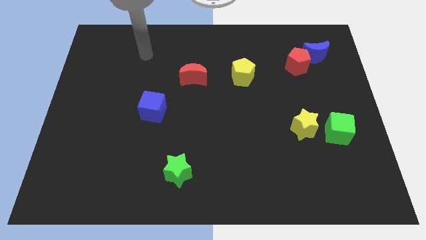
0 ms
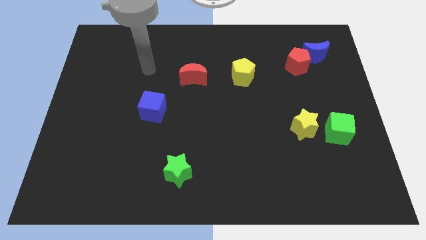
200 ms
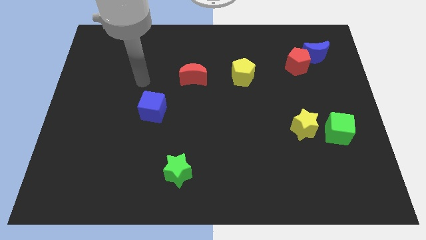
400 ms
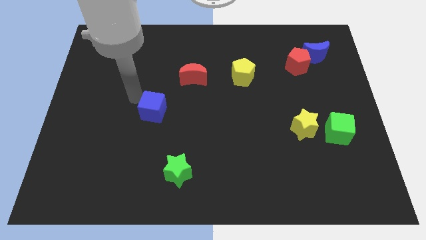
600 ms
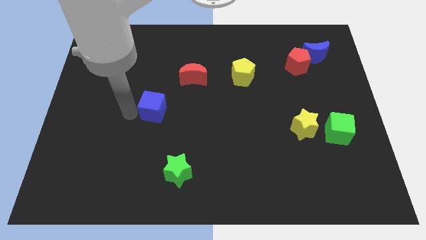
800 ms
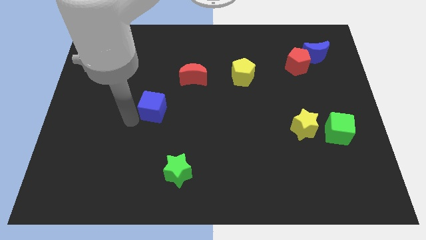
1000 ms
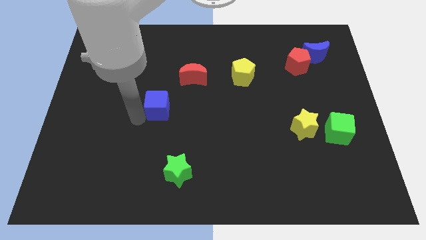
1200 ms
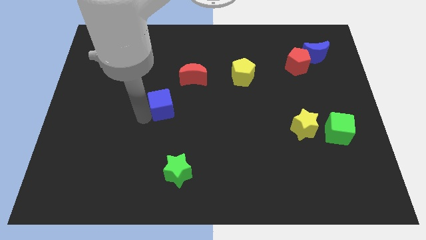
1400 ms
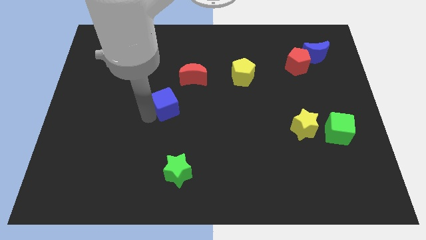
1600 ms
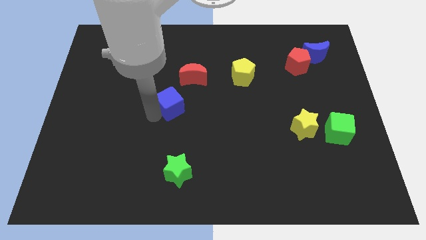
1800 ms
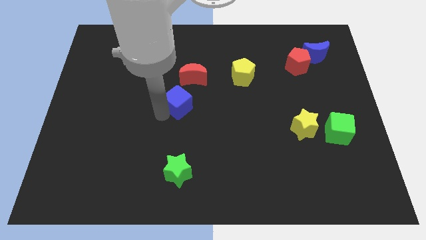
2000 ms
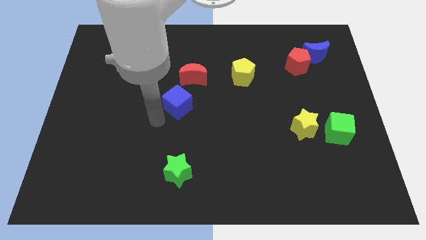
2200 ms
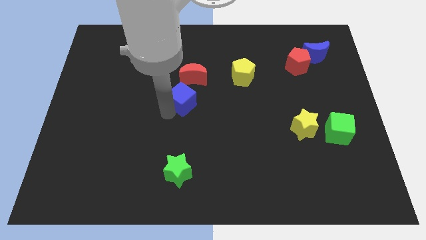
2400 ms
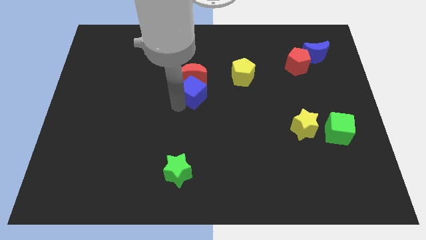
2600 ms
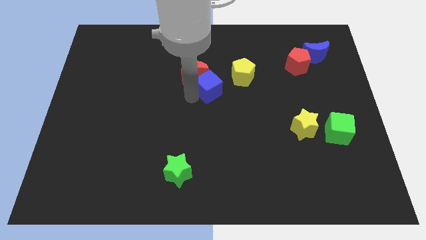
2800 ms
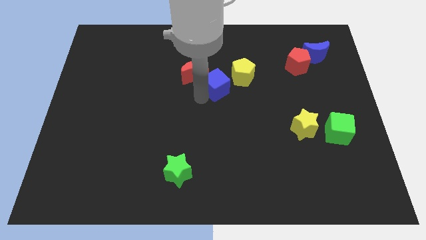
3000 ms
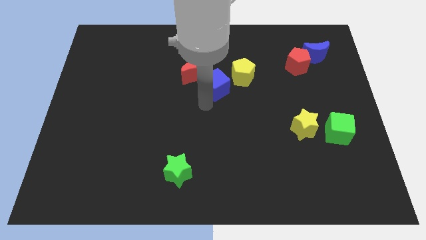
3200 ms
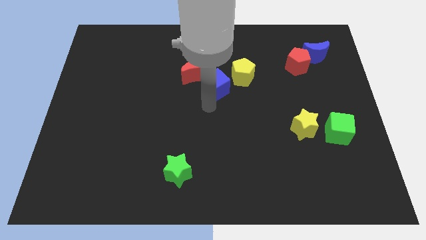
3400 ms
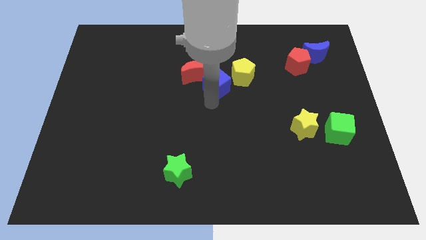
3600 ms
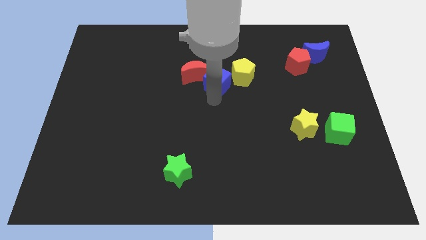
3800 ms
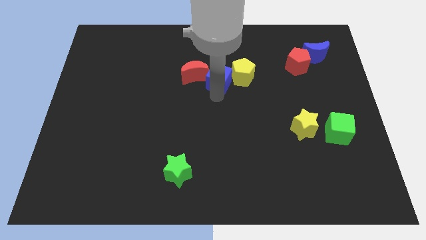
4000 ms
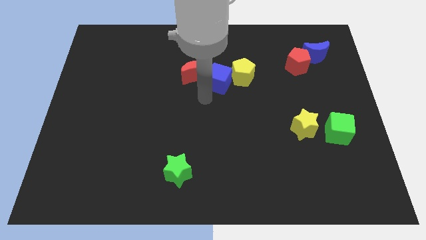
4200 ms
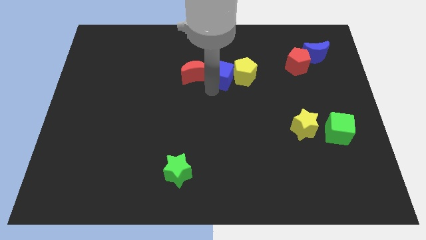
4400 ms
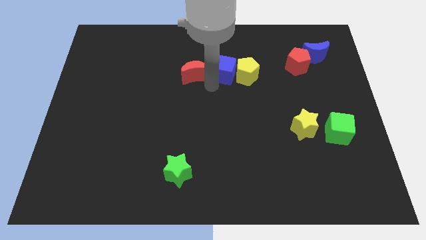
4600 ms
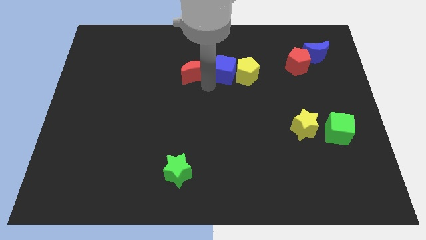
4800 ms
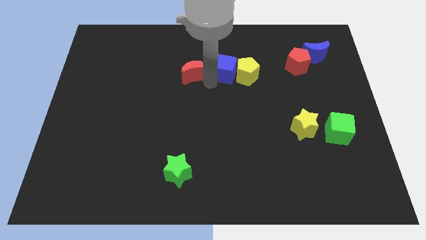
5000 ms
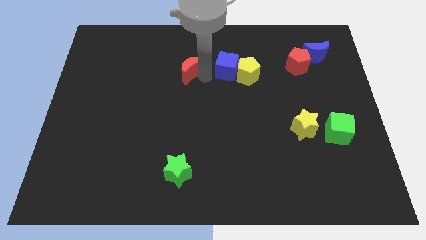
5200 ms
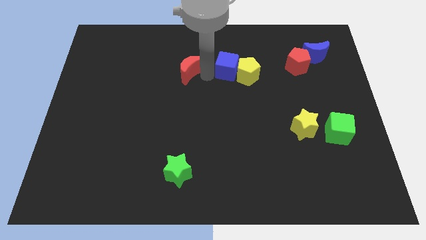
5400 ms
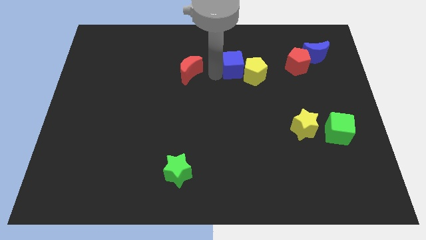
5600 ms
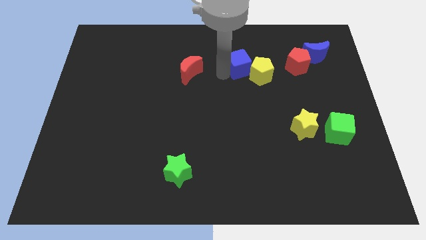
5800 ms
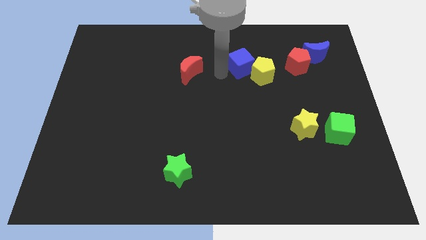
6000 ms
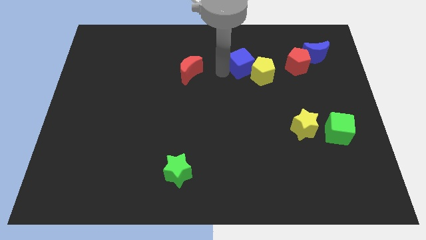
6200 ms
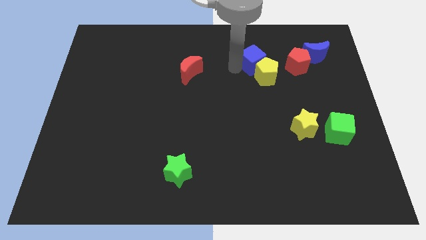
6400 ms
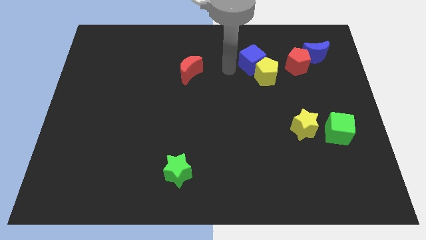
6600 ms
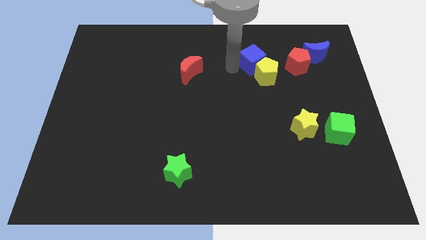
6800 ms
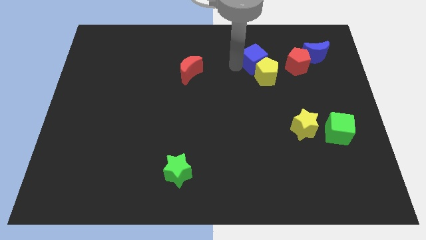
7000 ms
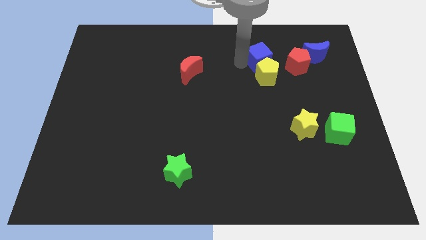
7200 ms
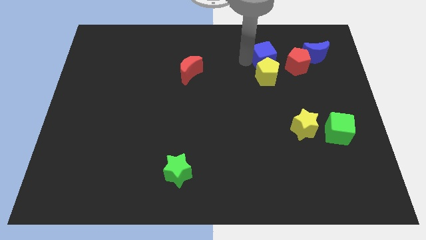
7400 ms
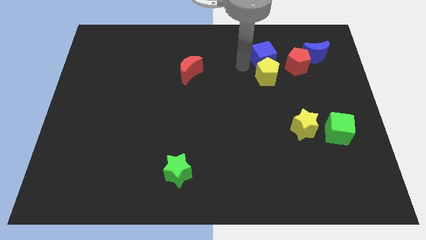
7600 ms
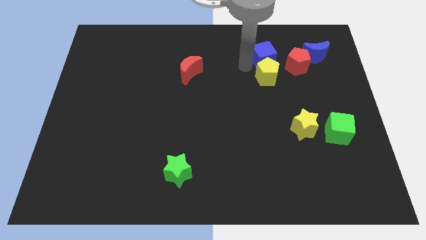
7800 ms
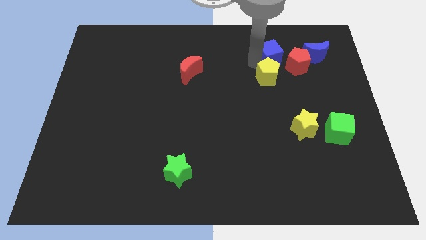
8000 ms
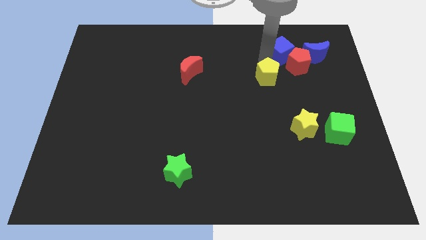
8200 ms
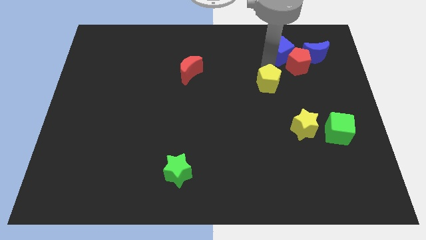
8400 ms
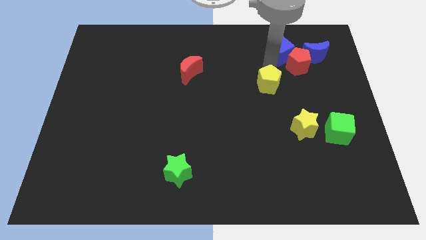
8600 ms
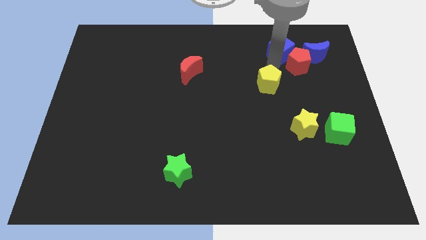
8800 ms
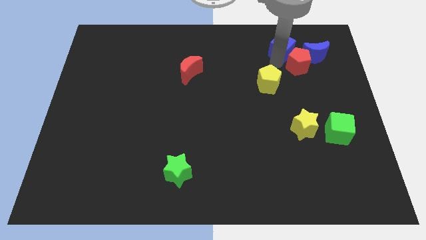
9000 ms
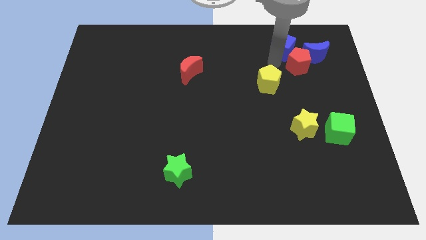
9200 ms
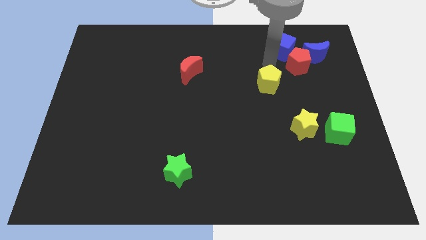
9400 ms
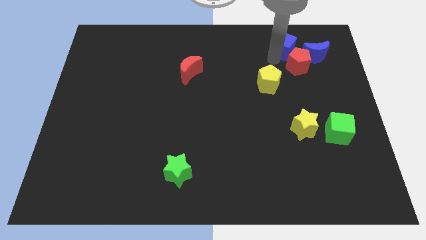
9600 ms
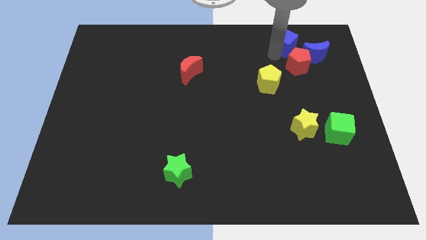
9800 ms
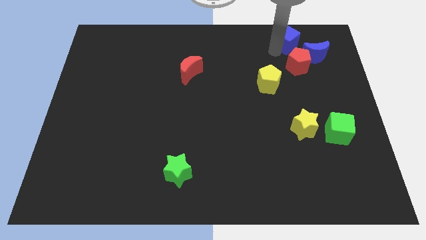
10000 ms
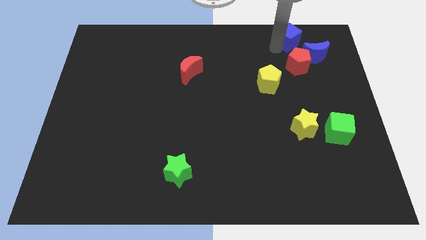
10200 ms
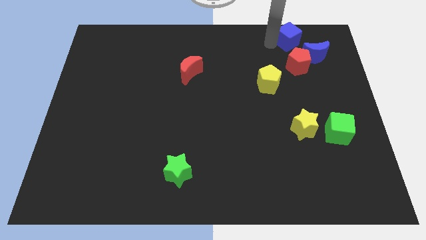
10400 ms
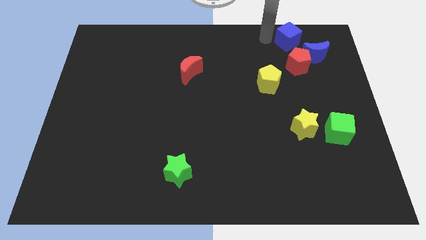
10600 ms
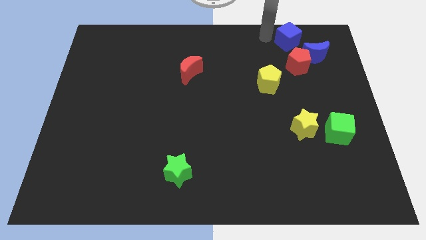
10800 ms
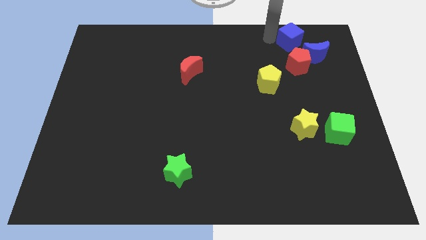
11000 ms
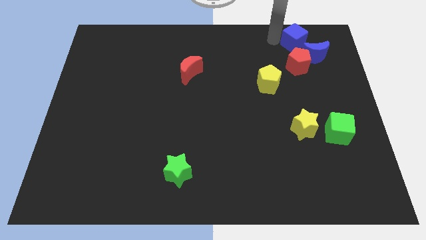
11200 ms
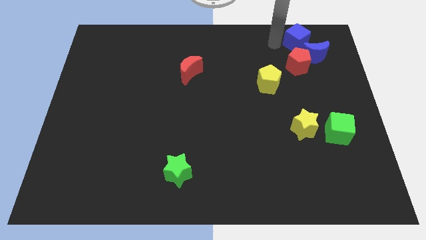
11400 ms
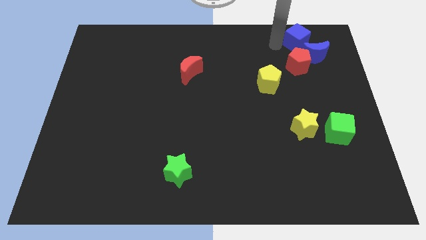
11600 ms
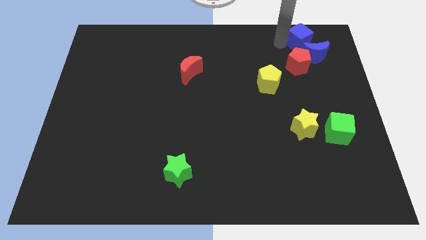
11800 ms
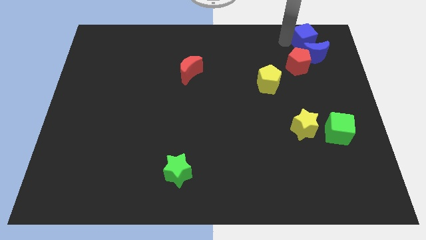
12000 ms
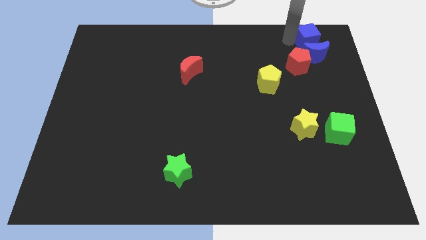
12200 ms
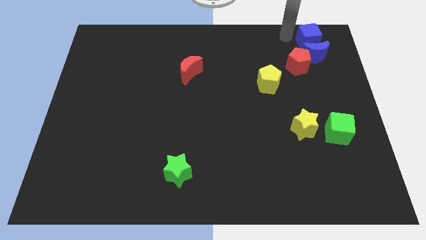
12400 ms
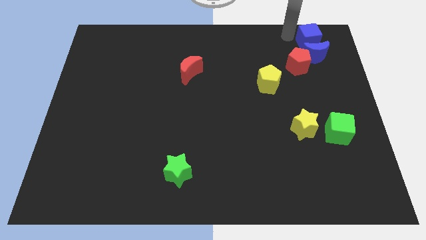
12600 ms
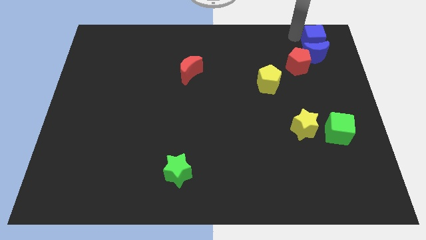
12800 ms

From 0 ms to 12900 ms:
slide the blue cube to the top right
